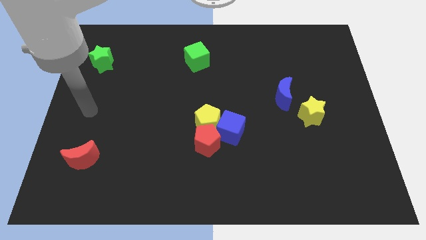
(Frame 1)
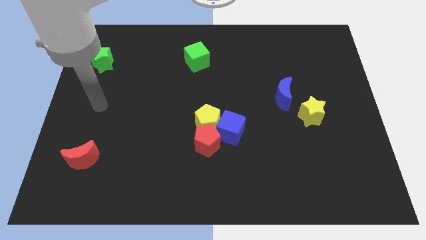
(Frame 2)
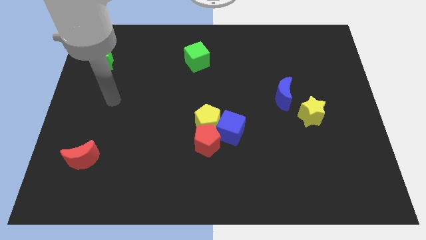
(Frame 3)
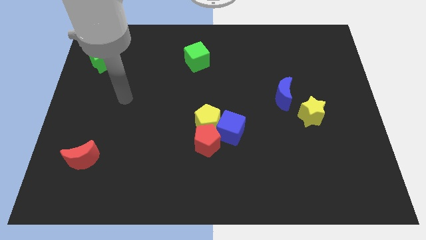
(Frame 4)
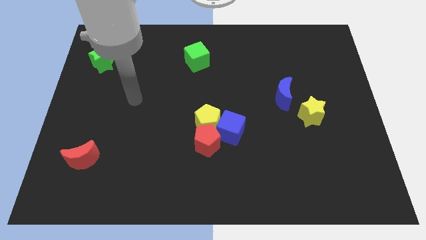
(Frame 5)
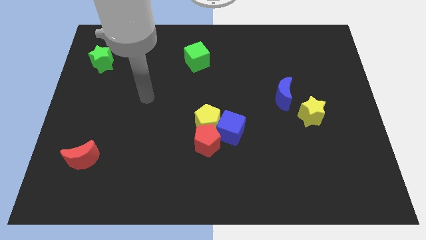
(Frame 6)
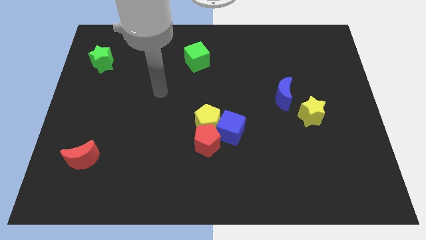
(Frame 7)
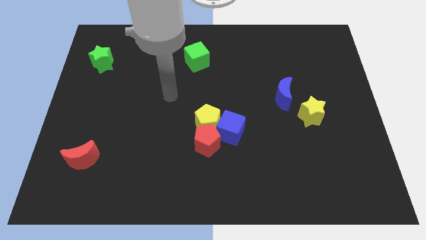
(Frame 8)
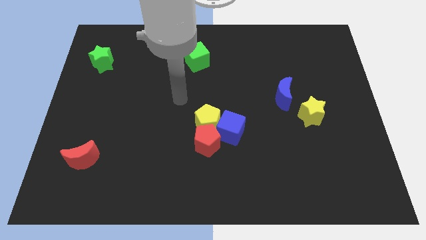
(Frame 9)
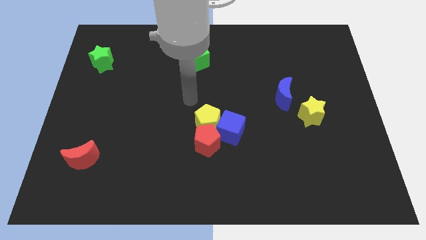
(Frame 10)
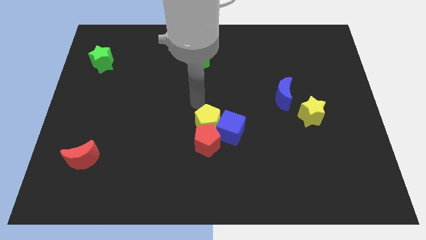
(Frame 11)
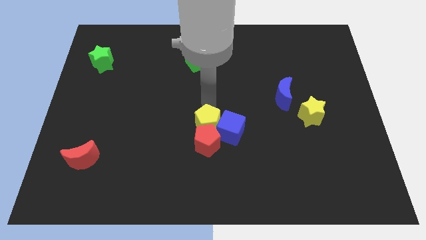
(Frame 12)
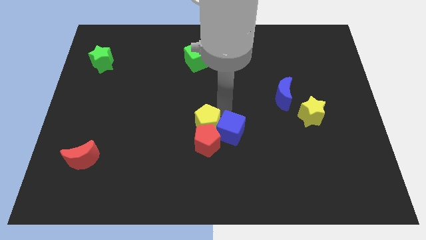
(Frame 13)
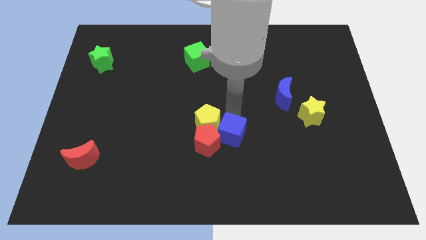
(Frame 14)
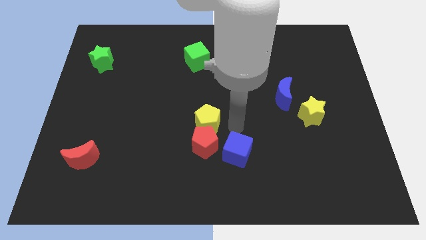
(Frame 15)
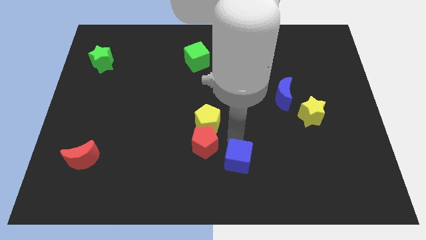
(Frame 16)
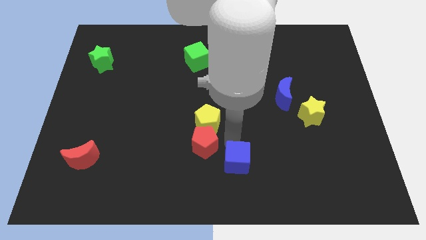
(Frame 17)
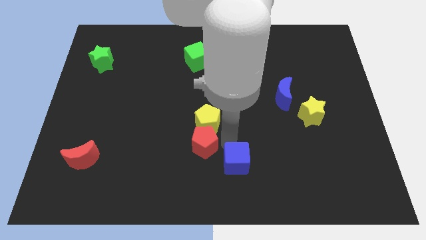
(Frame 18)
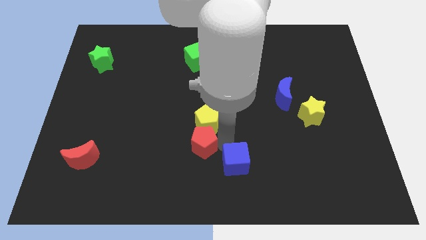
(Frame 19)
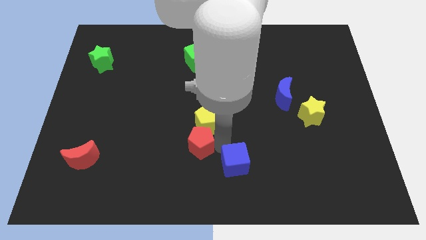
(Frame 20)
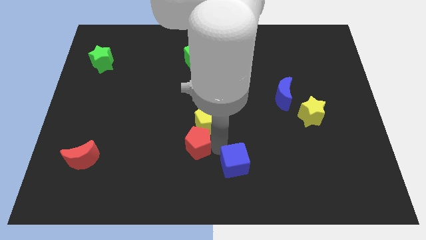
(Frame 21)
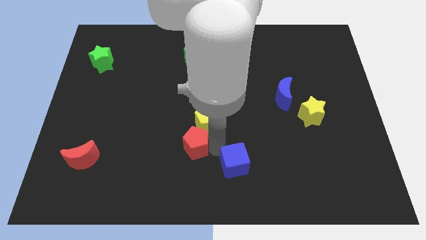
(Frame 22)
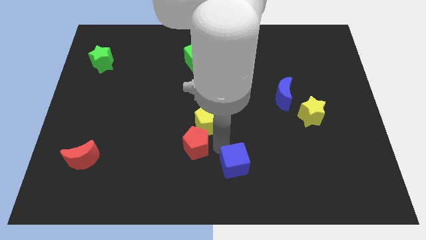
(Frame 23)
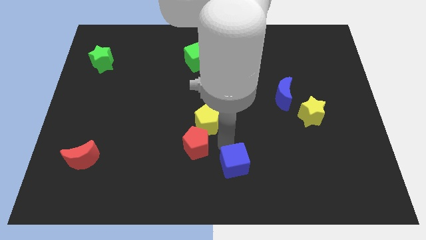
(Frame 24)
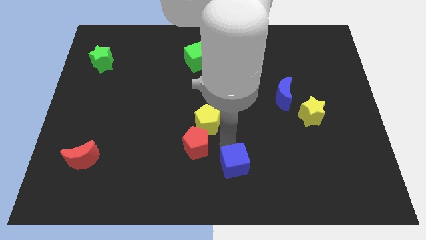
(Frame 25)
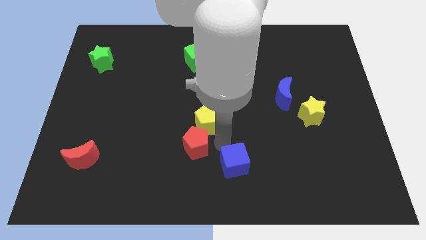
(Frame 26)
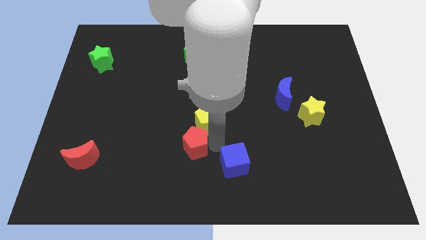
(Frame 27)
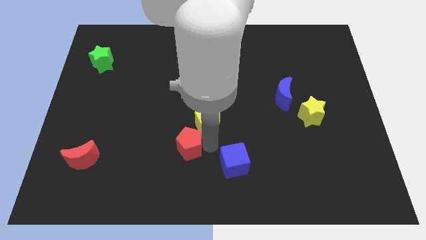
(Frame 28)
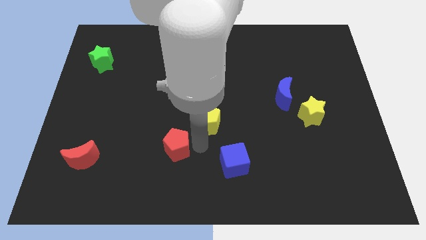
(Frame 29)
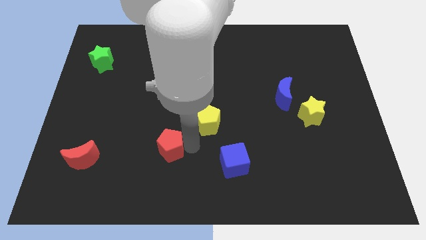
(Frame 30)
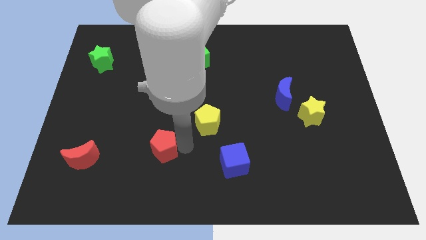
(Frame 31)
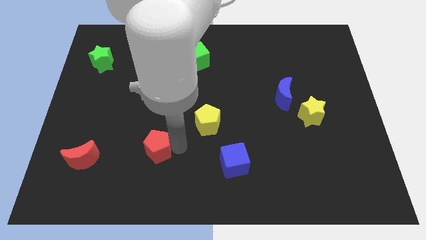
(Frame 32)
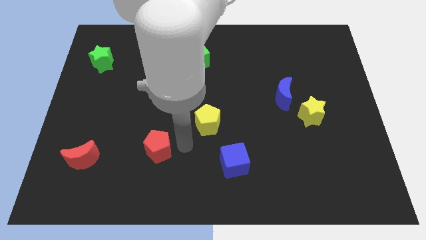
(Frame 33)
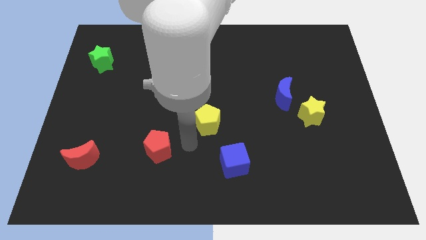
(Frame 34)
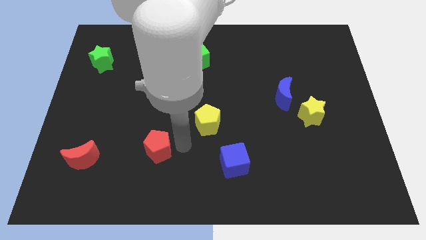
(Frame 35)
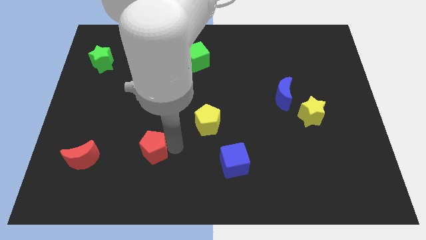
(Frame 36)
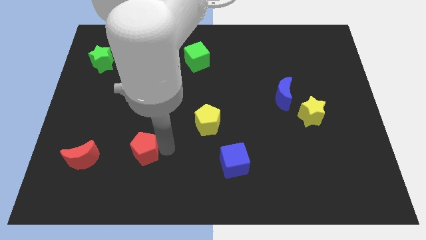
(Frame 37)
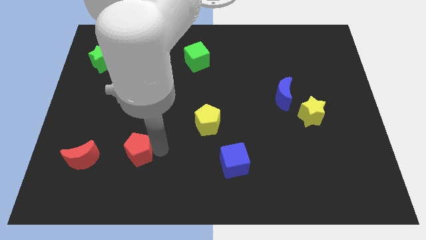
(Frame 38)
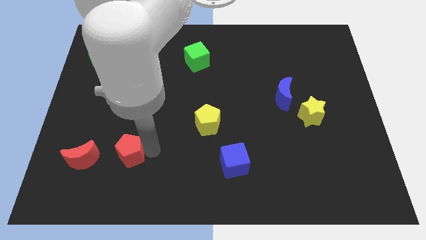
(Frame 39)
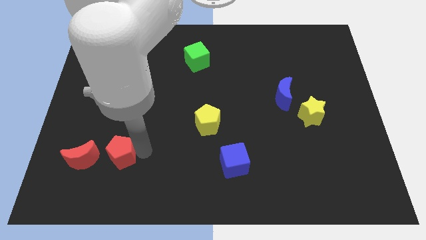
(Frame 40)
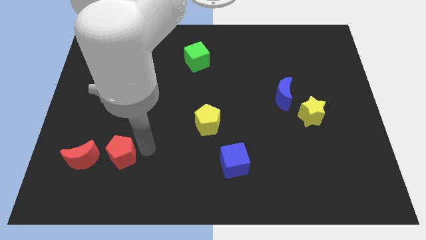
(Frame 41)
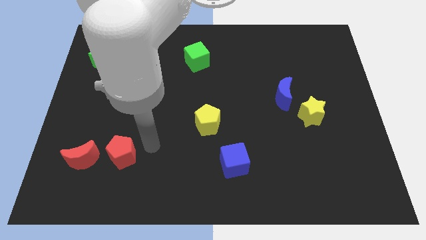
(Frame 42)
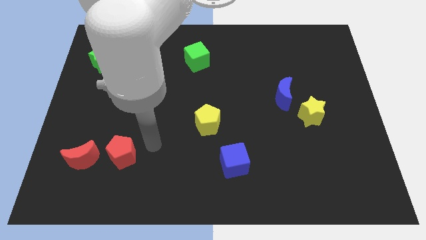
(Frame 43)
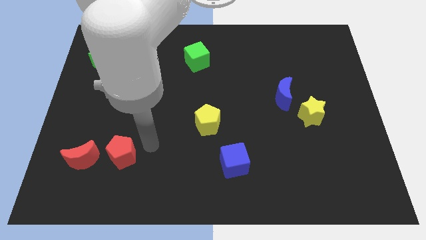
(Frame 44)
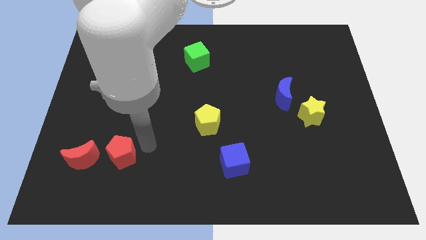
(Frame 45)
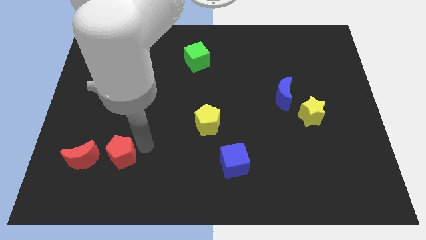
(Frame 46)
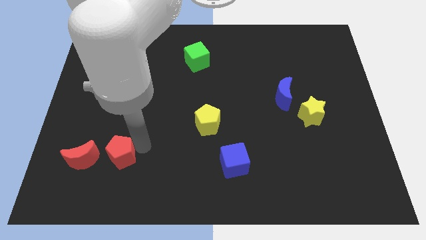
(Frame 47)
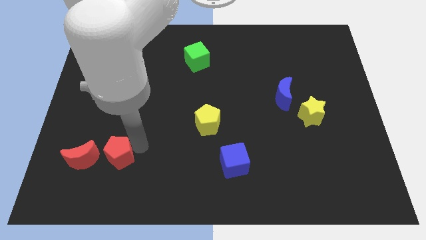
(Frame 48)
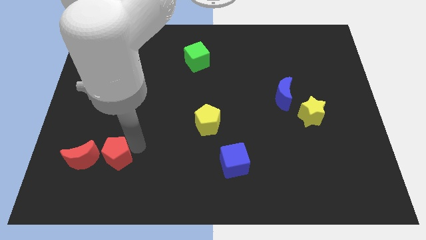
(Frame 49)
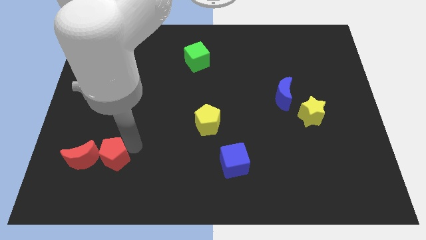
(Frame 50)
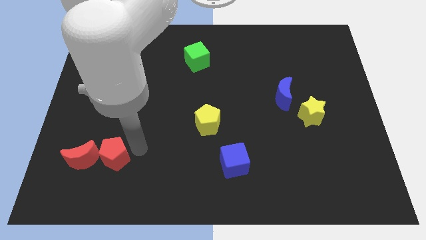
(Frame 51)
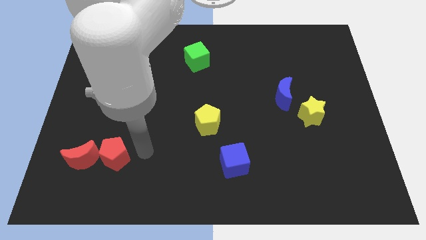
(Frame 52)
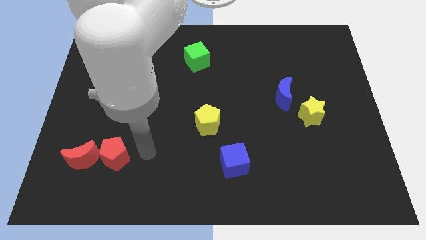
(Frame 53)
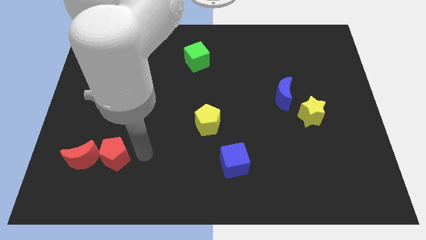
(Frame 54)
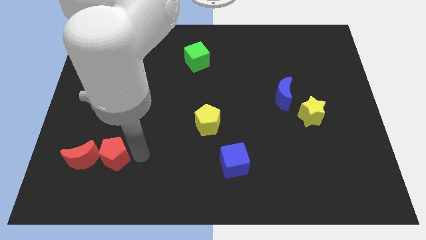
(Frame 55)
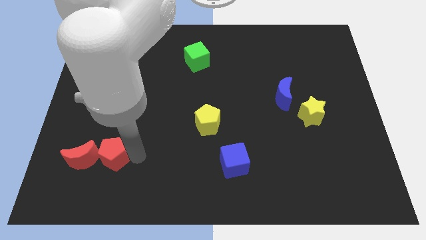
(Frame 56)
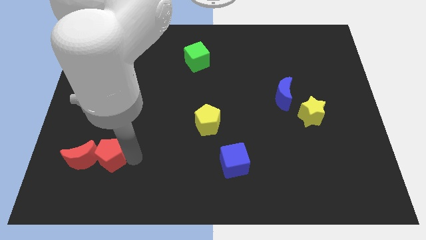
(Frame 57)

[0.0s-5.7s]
move the red pentagon close to the red moon

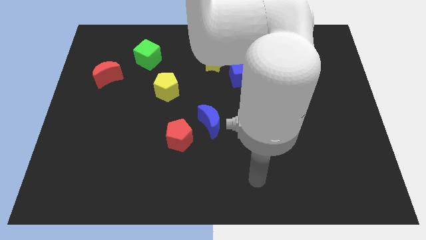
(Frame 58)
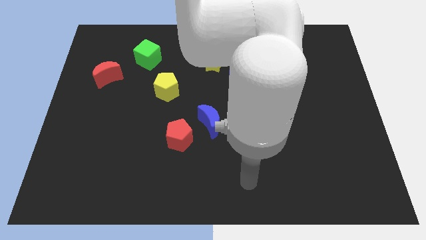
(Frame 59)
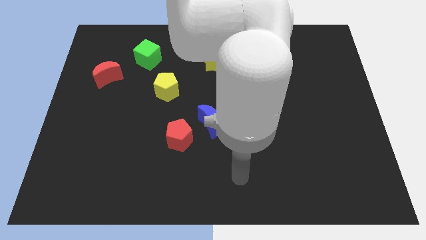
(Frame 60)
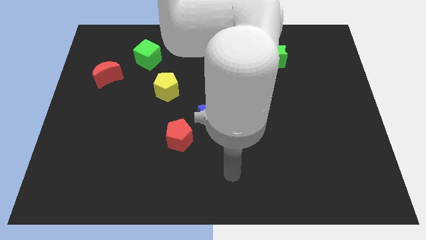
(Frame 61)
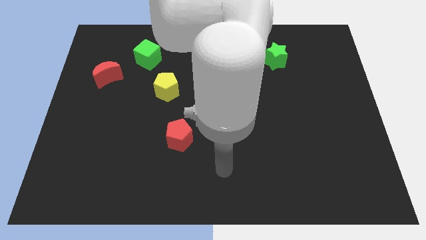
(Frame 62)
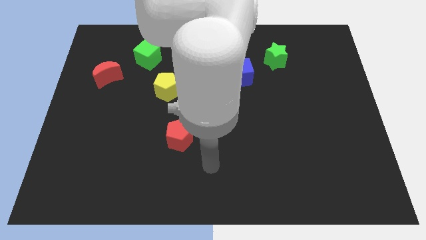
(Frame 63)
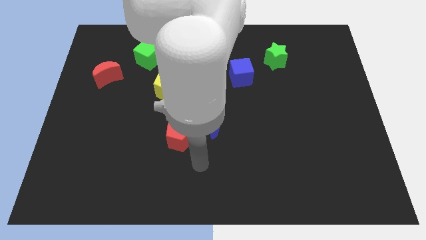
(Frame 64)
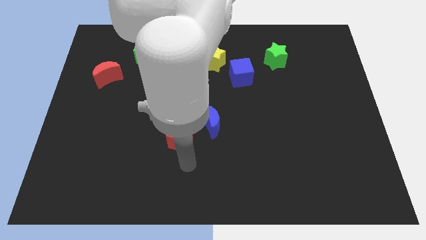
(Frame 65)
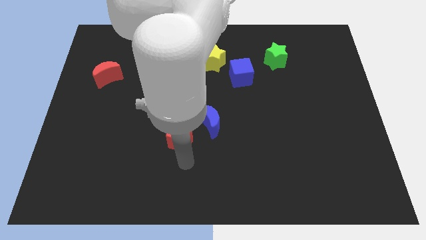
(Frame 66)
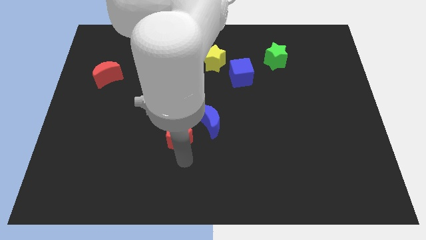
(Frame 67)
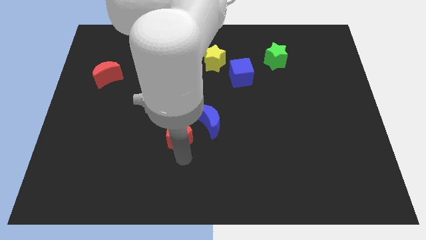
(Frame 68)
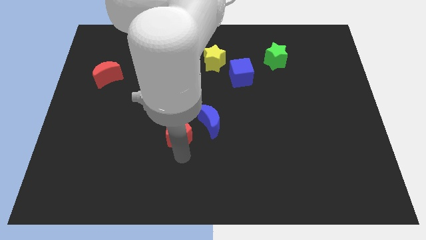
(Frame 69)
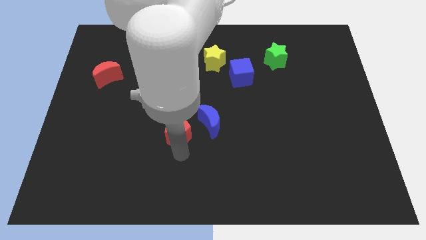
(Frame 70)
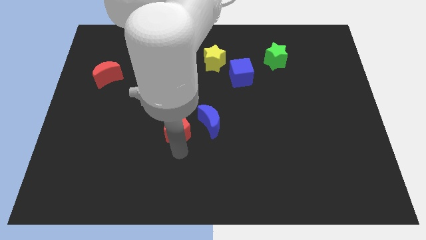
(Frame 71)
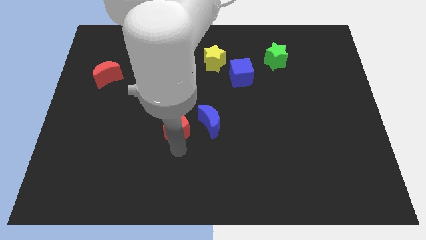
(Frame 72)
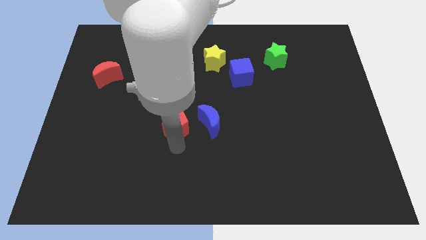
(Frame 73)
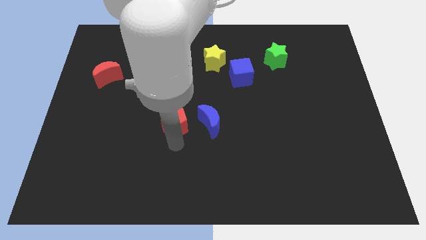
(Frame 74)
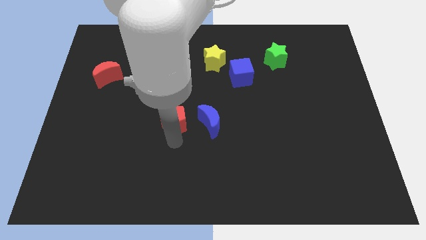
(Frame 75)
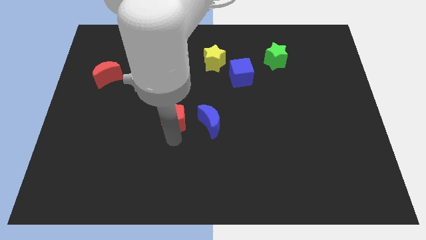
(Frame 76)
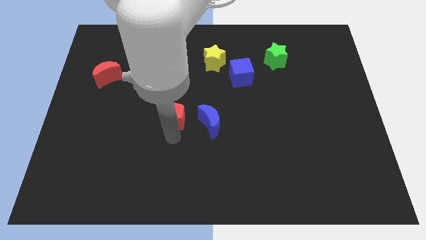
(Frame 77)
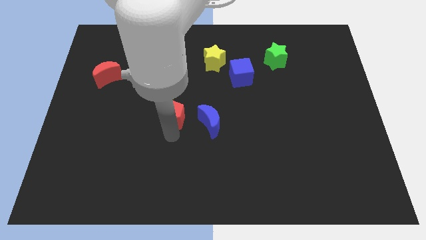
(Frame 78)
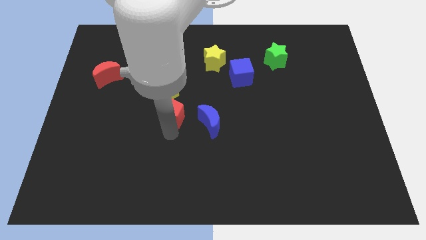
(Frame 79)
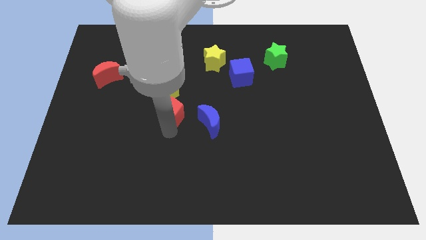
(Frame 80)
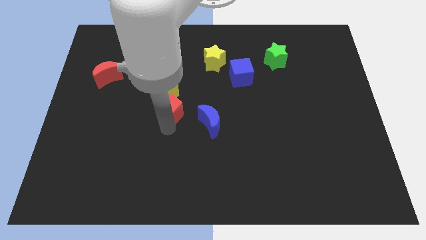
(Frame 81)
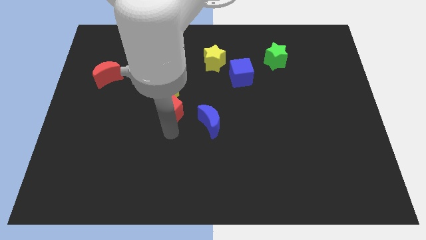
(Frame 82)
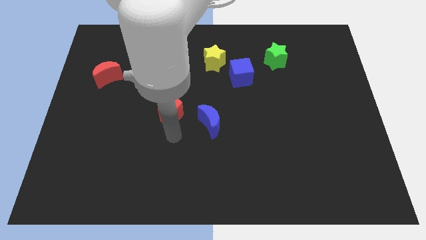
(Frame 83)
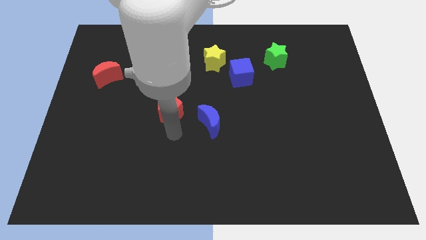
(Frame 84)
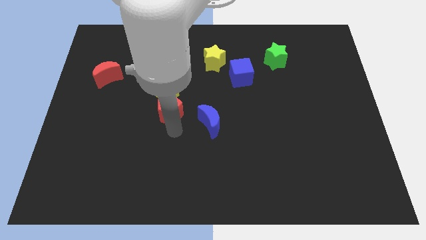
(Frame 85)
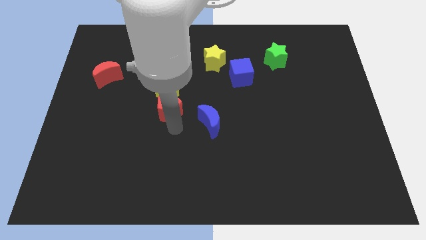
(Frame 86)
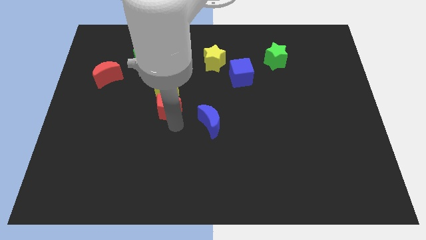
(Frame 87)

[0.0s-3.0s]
put the red pentagon towards the yellow pentagon
